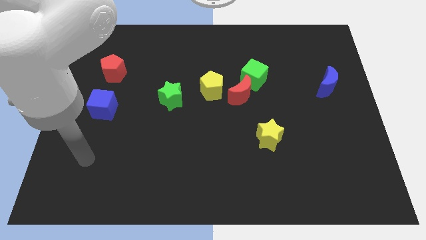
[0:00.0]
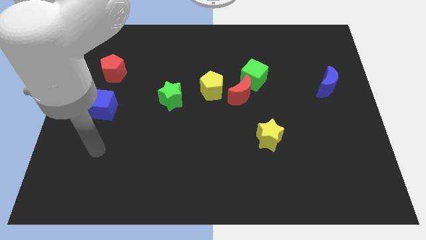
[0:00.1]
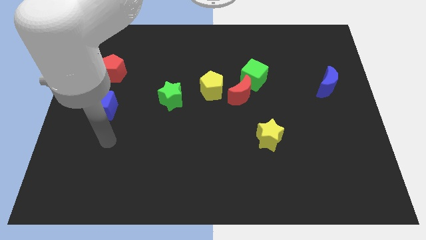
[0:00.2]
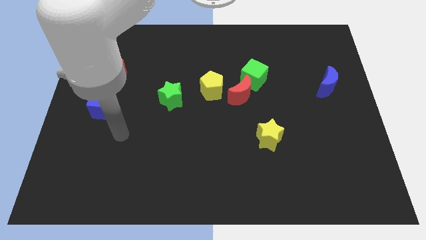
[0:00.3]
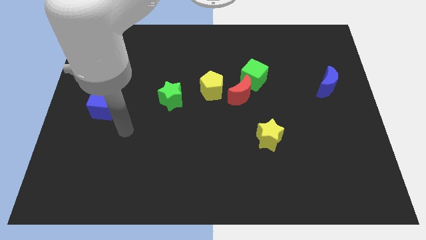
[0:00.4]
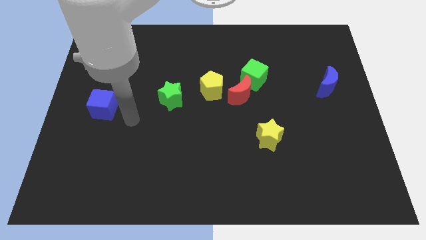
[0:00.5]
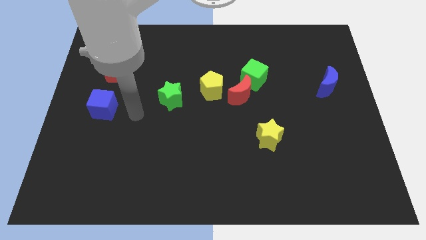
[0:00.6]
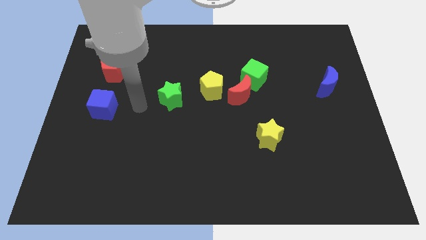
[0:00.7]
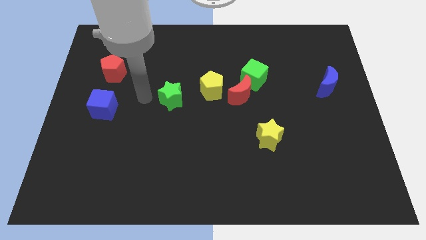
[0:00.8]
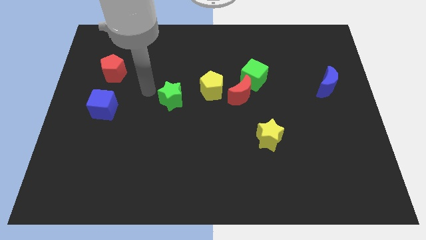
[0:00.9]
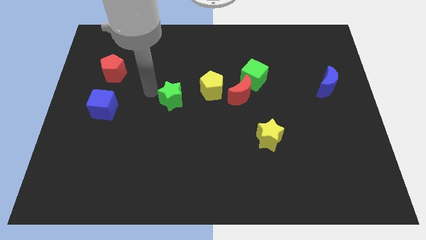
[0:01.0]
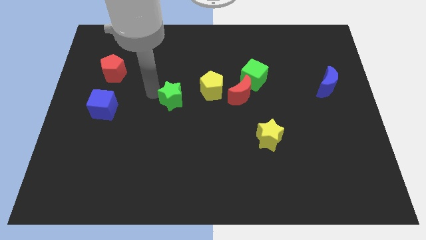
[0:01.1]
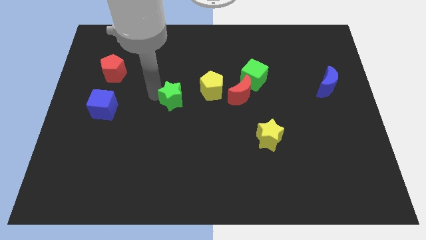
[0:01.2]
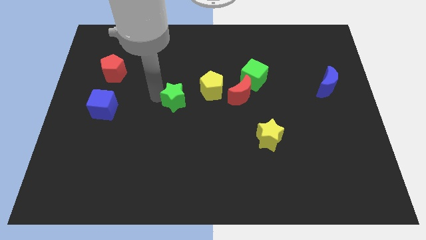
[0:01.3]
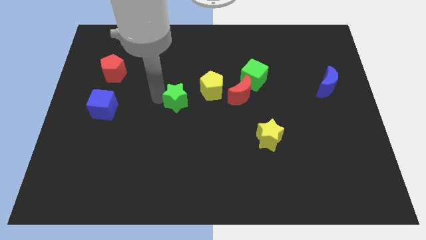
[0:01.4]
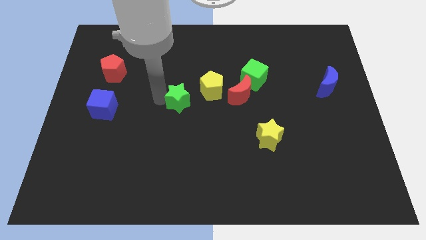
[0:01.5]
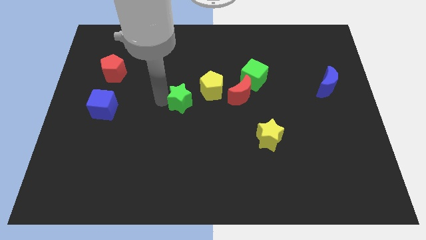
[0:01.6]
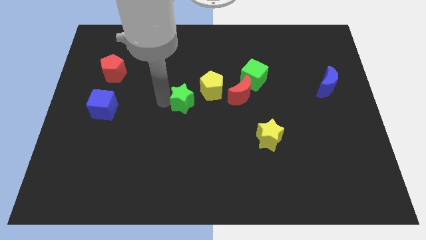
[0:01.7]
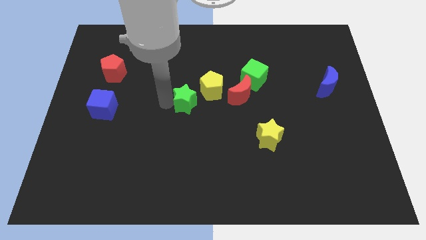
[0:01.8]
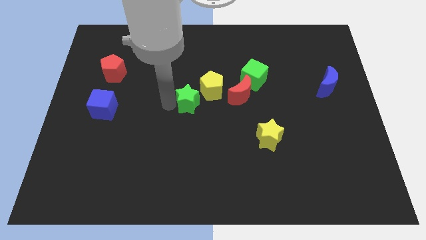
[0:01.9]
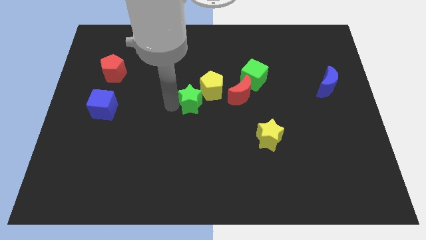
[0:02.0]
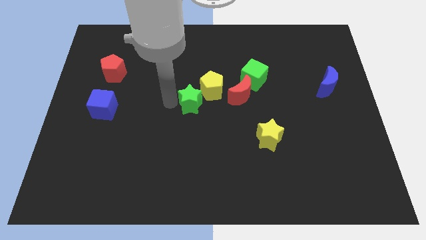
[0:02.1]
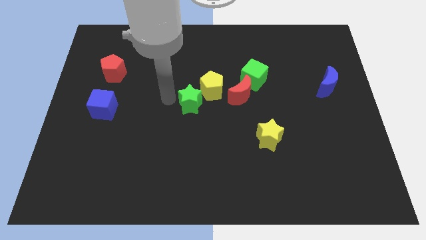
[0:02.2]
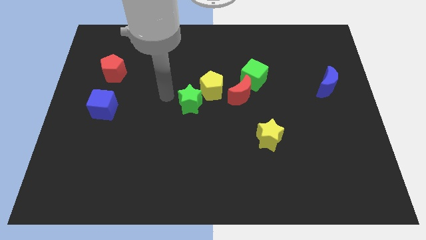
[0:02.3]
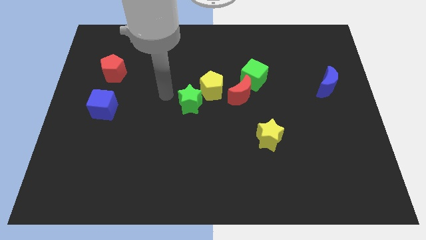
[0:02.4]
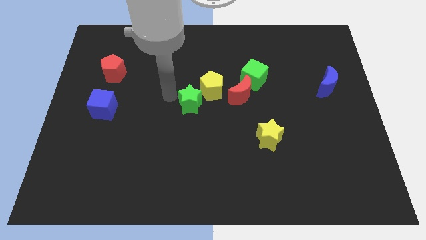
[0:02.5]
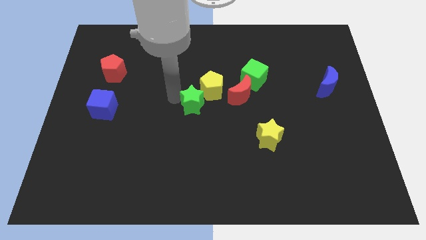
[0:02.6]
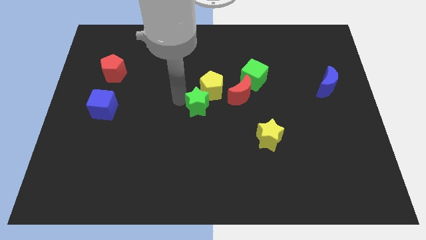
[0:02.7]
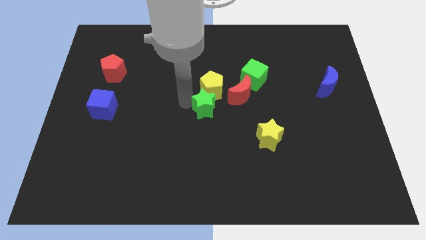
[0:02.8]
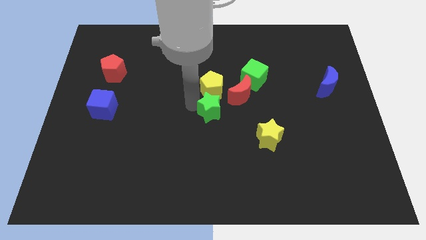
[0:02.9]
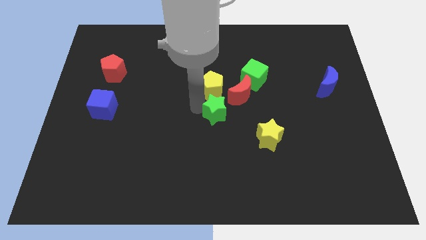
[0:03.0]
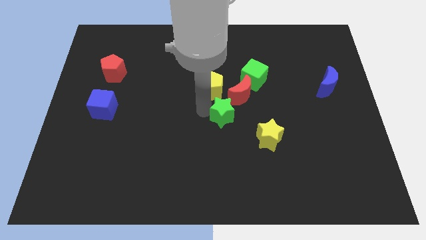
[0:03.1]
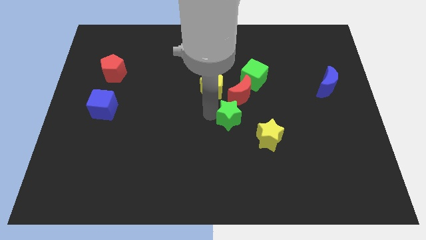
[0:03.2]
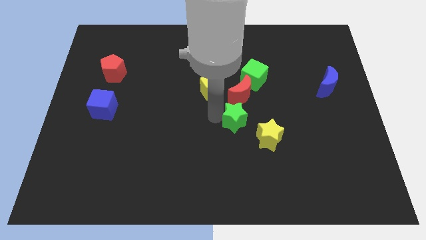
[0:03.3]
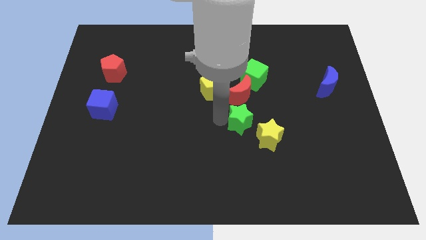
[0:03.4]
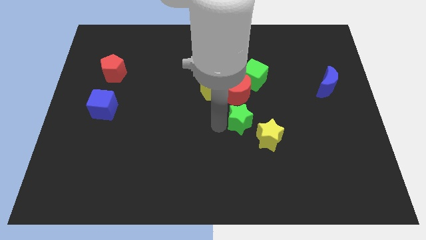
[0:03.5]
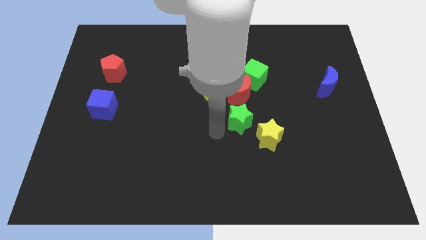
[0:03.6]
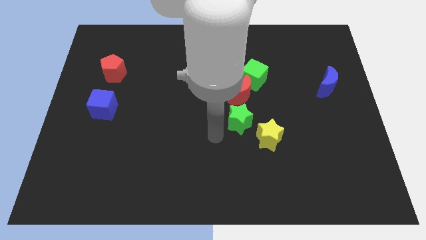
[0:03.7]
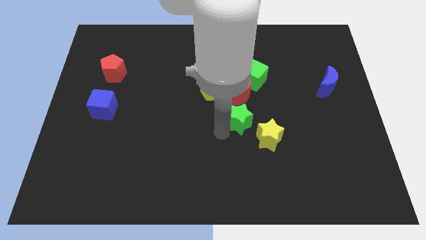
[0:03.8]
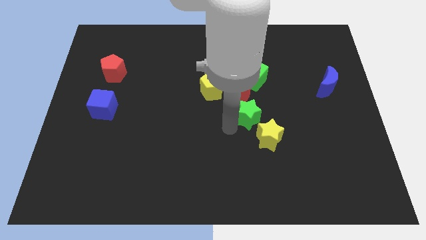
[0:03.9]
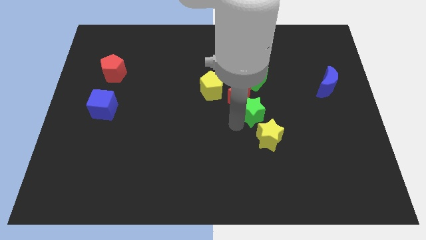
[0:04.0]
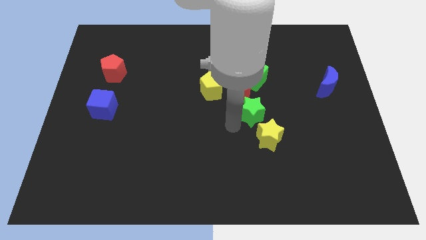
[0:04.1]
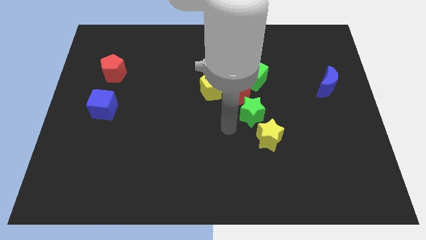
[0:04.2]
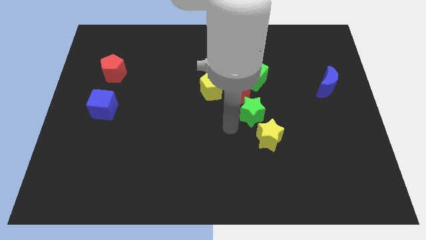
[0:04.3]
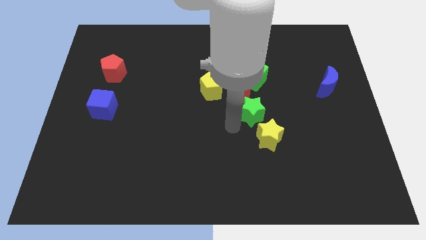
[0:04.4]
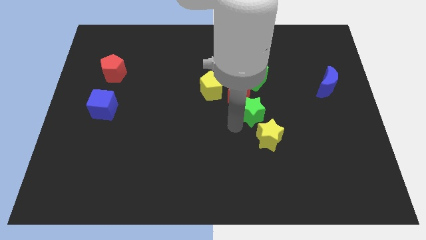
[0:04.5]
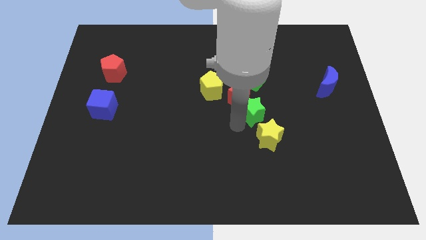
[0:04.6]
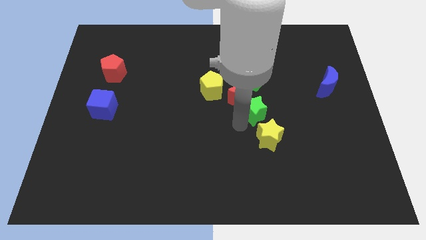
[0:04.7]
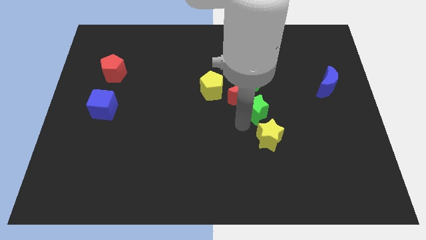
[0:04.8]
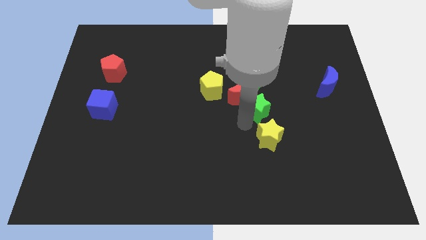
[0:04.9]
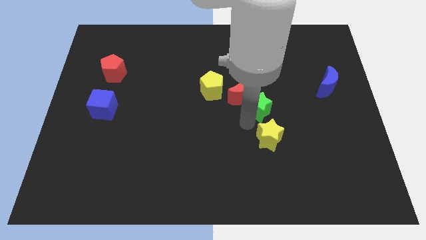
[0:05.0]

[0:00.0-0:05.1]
push the green star right

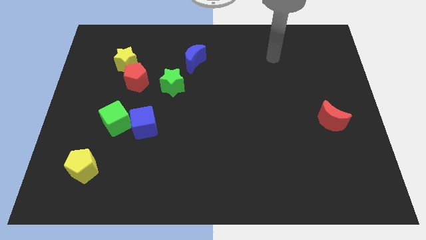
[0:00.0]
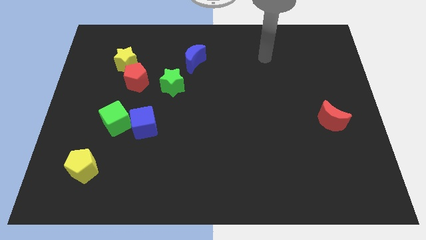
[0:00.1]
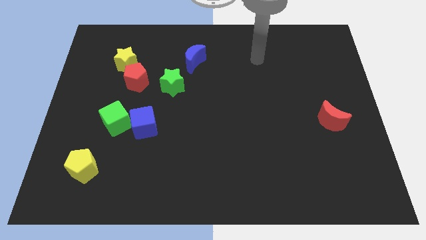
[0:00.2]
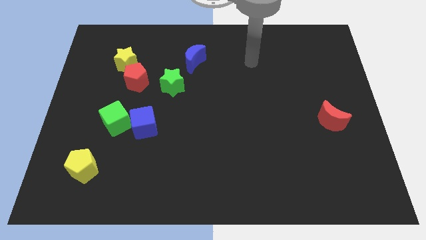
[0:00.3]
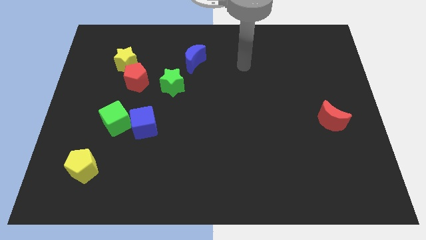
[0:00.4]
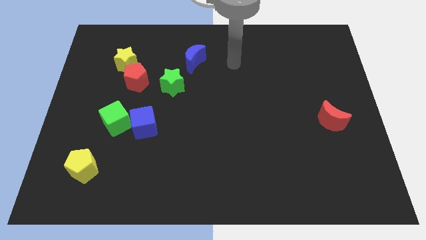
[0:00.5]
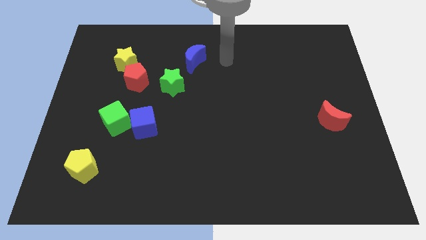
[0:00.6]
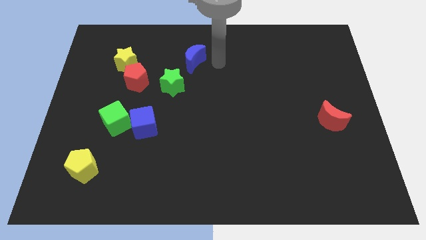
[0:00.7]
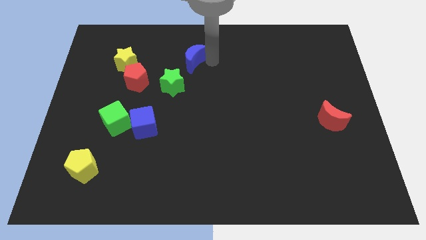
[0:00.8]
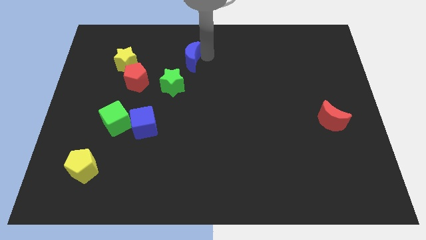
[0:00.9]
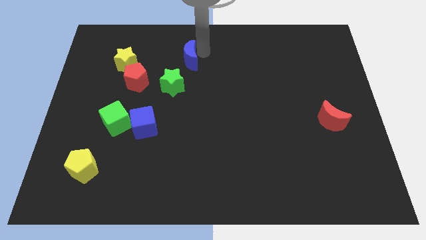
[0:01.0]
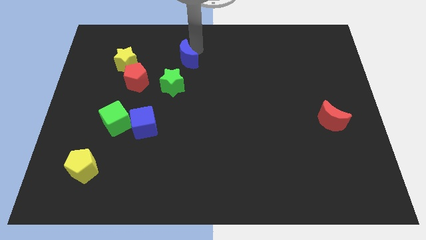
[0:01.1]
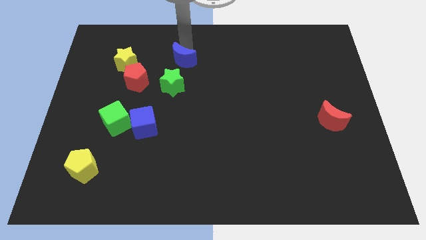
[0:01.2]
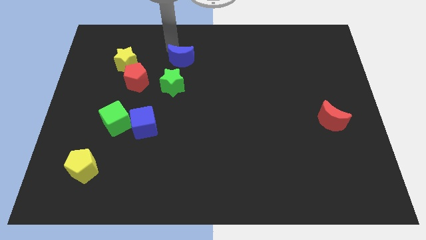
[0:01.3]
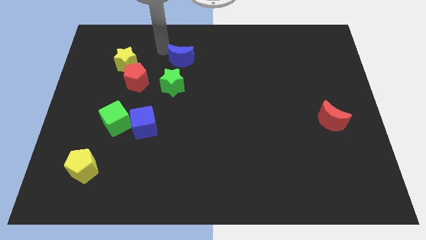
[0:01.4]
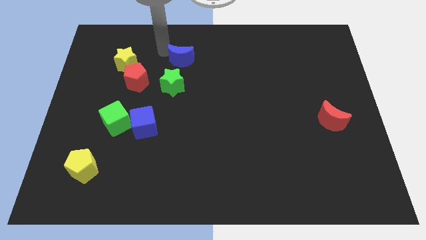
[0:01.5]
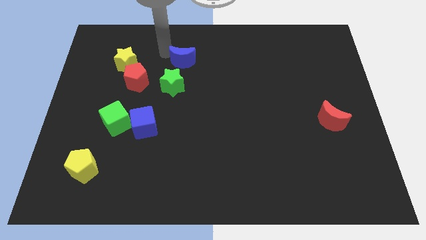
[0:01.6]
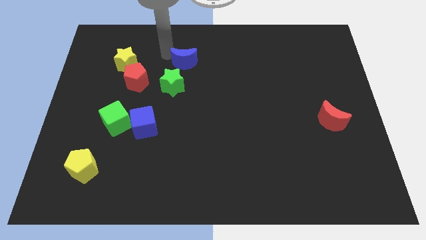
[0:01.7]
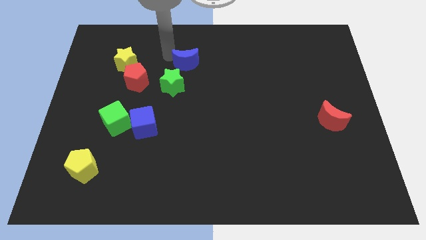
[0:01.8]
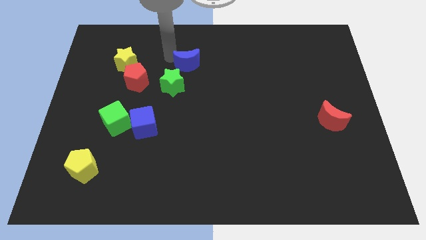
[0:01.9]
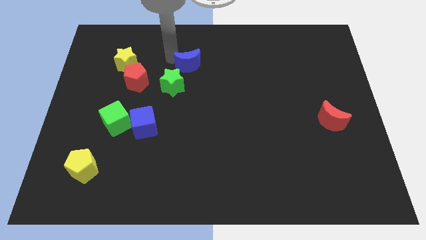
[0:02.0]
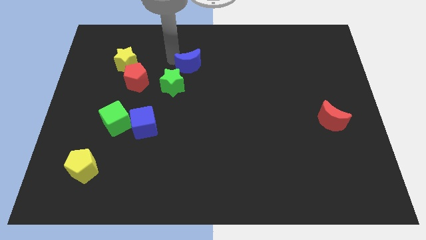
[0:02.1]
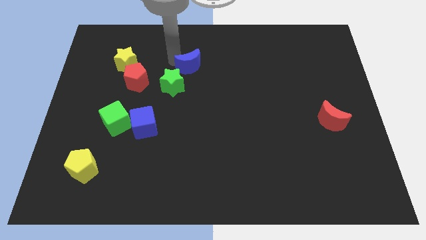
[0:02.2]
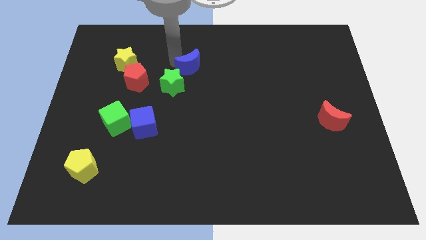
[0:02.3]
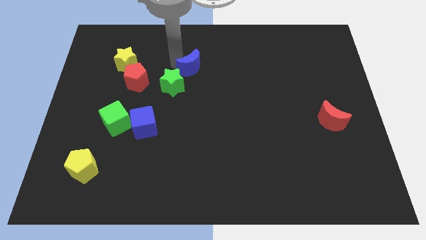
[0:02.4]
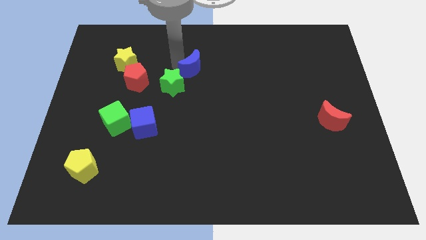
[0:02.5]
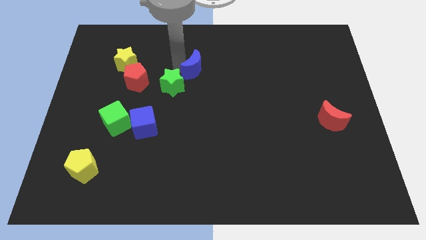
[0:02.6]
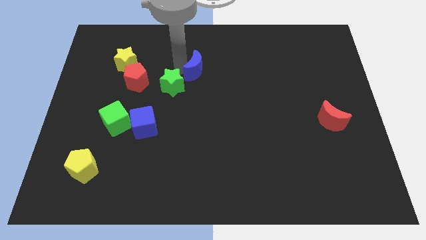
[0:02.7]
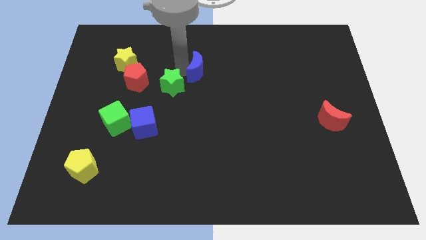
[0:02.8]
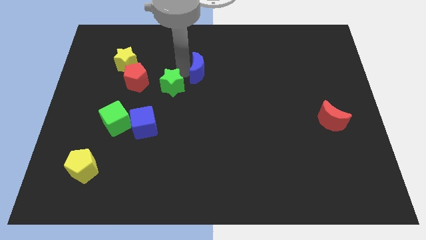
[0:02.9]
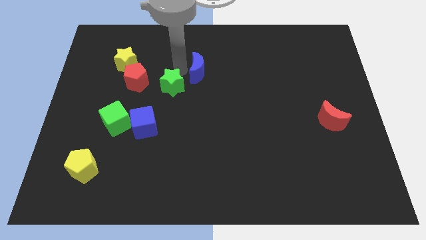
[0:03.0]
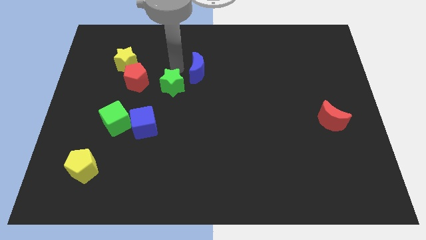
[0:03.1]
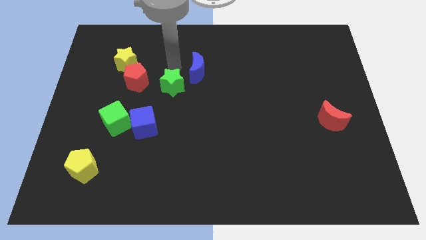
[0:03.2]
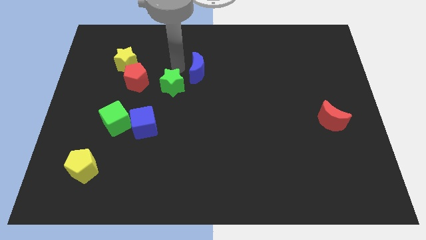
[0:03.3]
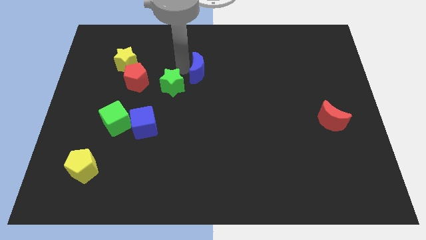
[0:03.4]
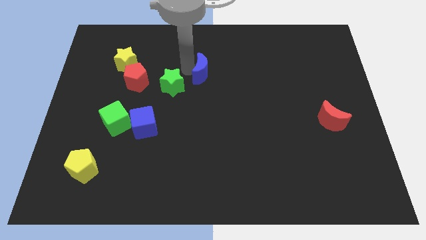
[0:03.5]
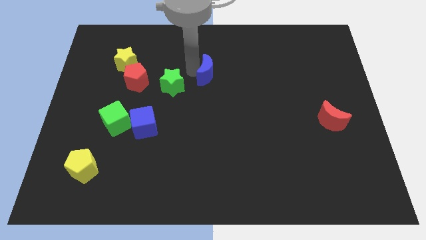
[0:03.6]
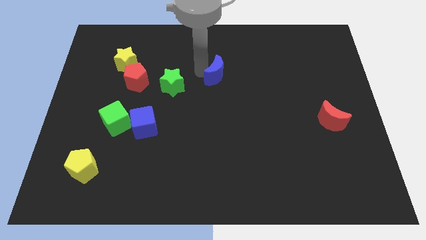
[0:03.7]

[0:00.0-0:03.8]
move the blue moon a little downwards and to the right
